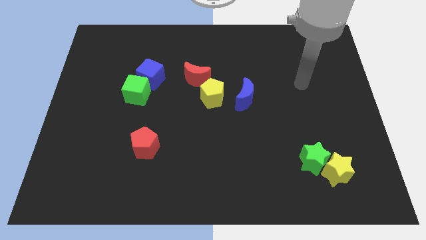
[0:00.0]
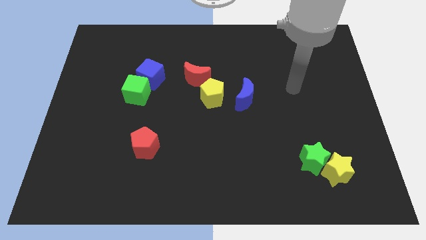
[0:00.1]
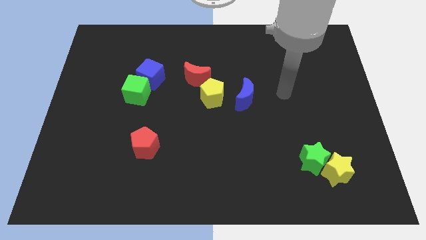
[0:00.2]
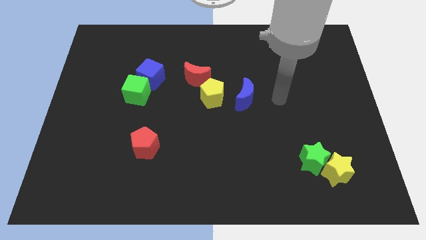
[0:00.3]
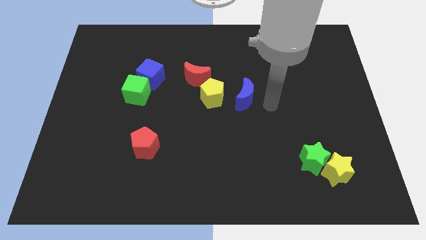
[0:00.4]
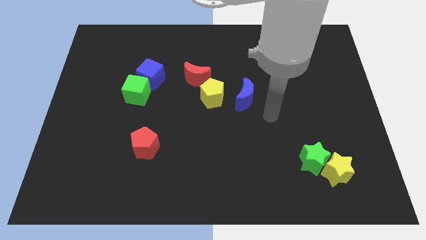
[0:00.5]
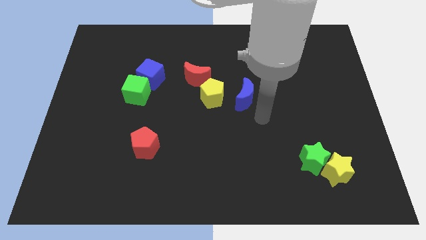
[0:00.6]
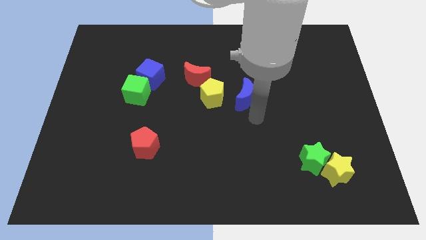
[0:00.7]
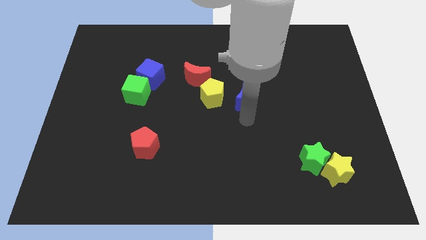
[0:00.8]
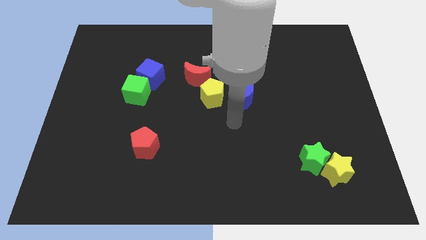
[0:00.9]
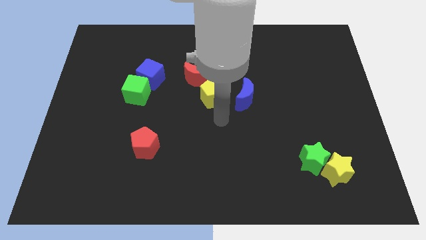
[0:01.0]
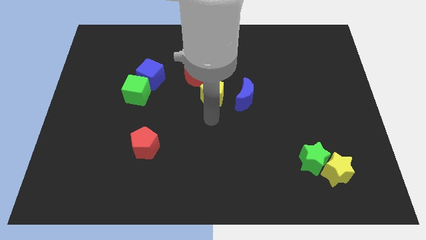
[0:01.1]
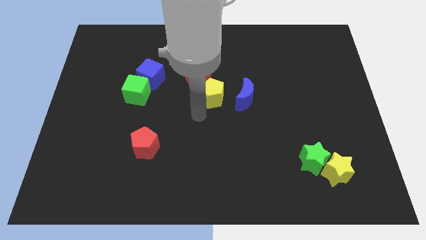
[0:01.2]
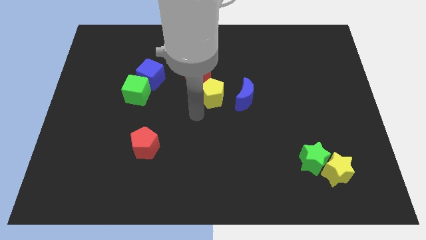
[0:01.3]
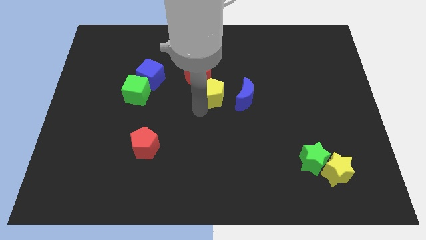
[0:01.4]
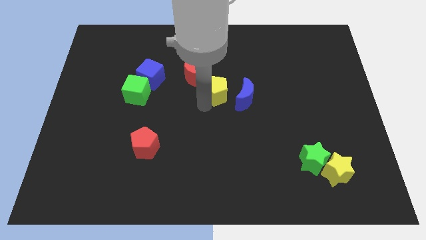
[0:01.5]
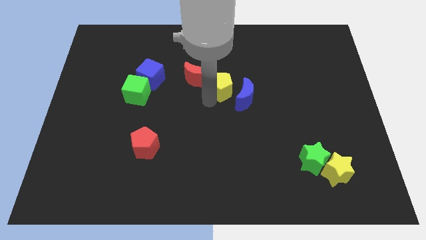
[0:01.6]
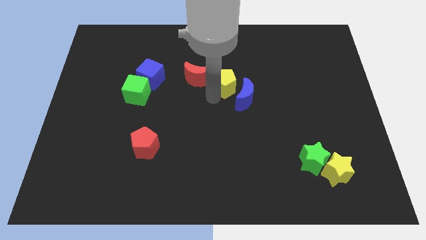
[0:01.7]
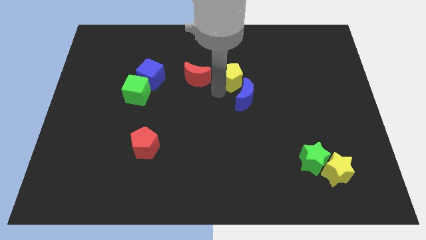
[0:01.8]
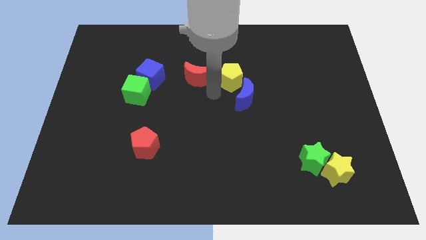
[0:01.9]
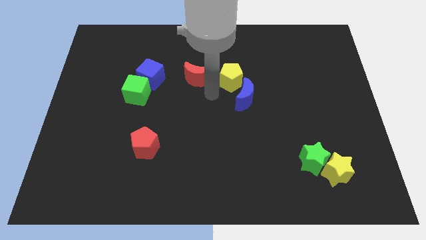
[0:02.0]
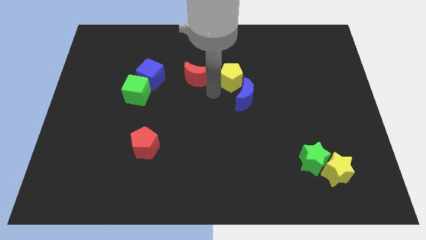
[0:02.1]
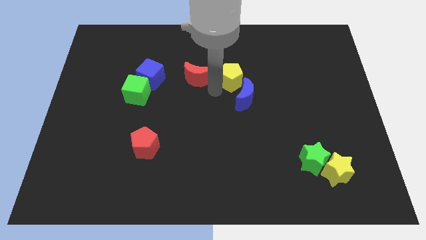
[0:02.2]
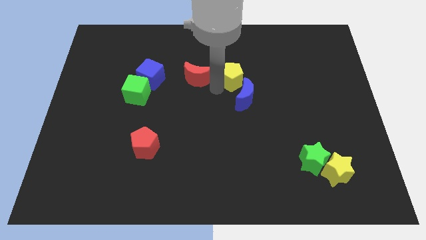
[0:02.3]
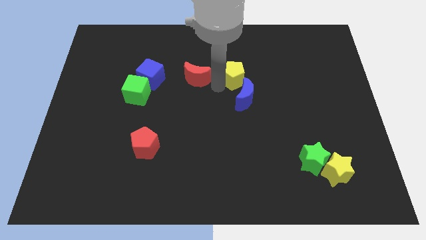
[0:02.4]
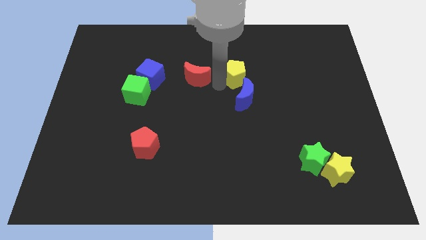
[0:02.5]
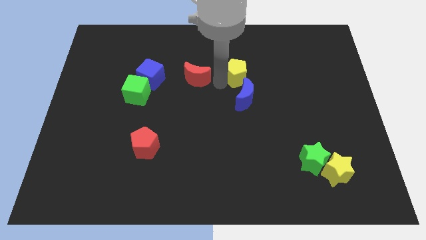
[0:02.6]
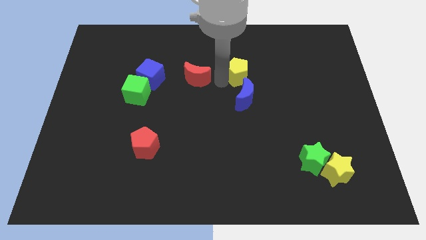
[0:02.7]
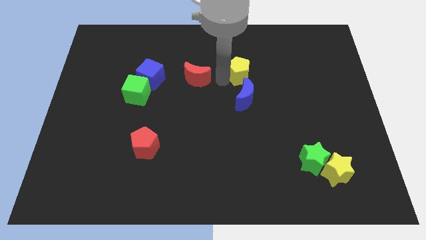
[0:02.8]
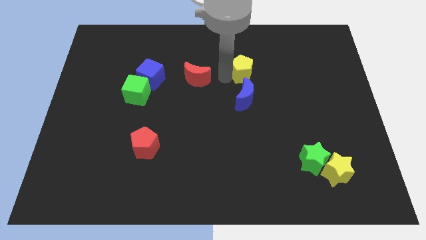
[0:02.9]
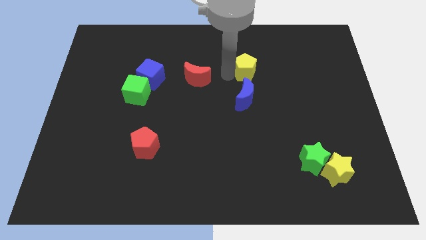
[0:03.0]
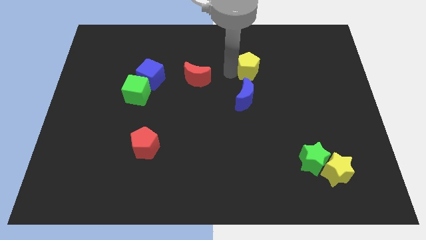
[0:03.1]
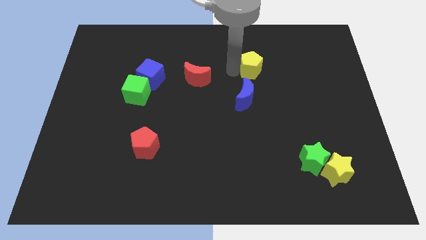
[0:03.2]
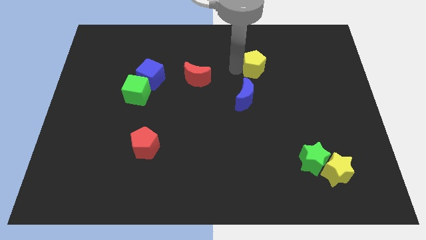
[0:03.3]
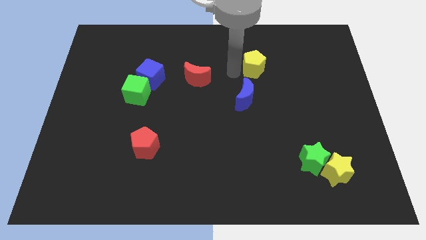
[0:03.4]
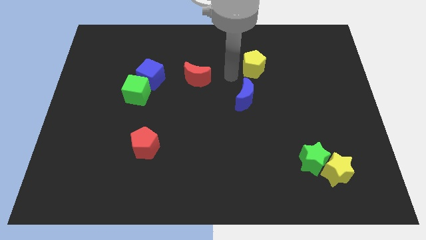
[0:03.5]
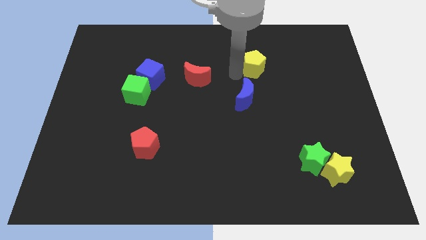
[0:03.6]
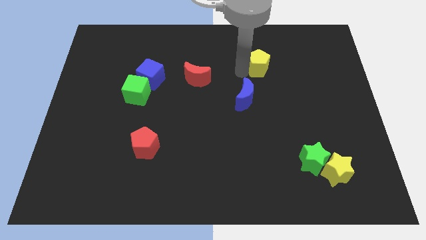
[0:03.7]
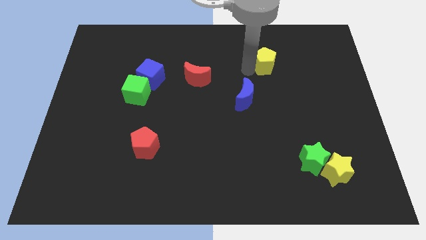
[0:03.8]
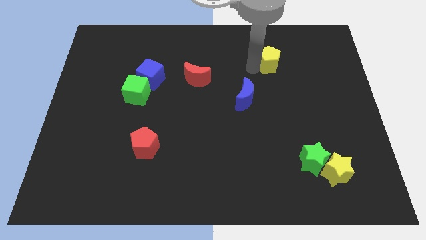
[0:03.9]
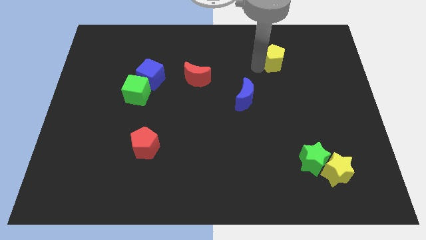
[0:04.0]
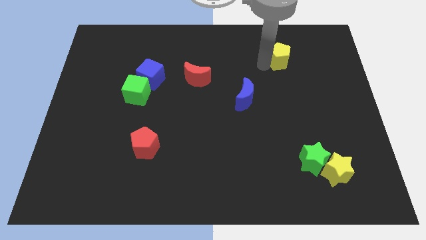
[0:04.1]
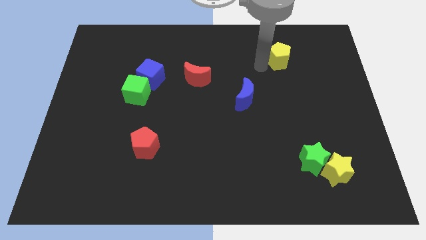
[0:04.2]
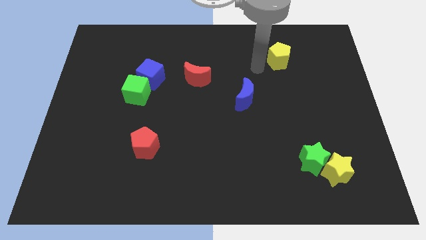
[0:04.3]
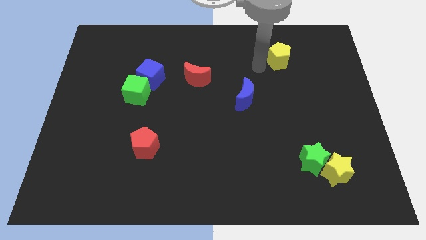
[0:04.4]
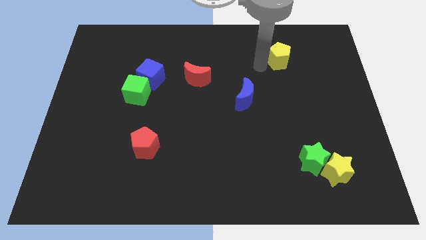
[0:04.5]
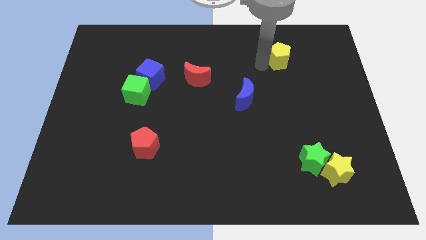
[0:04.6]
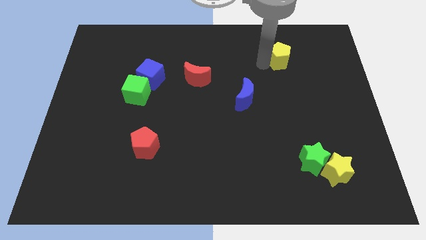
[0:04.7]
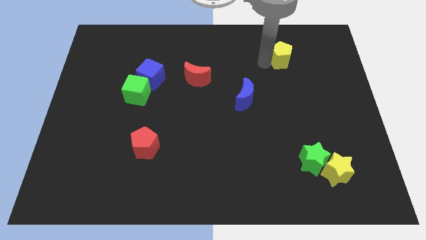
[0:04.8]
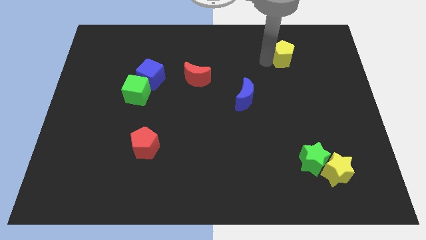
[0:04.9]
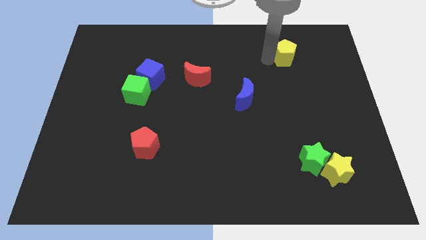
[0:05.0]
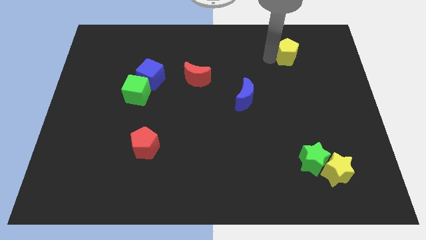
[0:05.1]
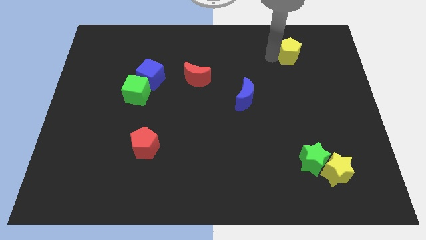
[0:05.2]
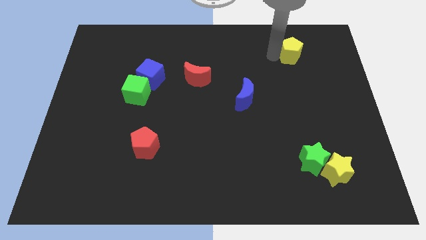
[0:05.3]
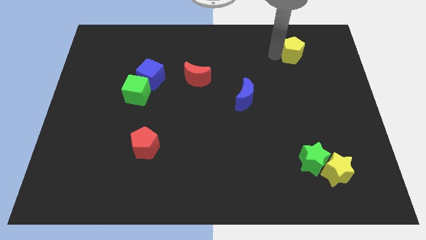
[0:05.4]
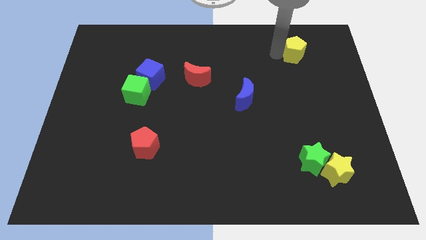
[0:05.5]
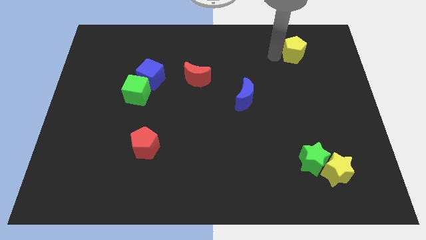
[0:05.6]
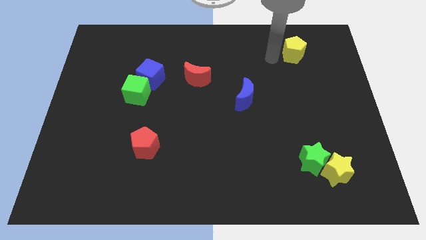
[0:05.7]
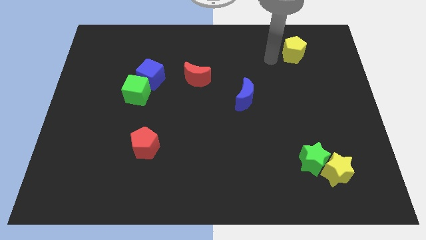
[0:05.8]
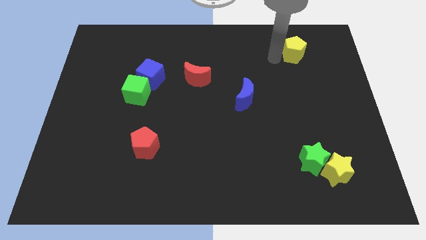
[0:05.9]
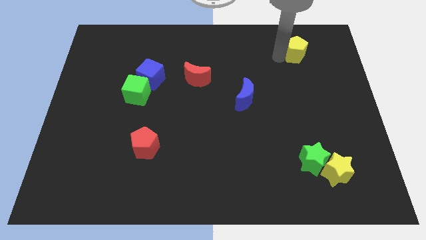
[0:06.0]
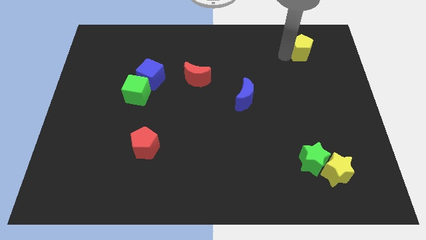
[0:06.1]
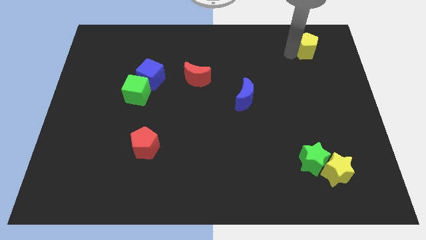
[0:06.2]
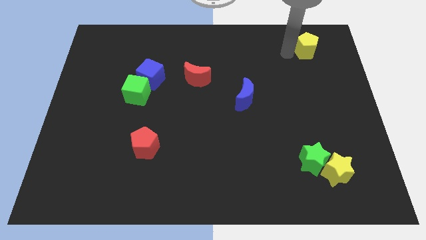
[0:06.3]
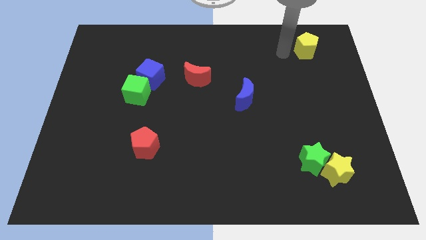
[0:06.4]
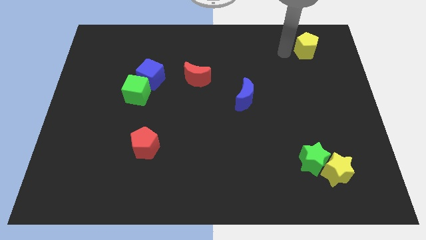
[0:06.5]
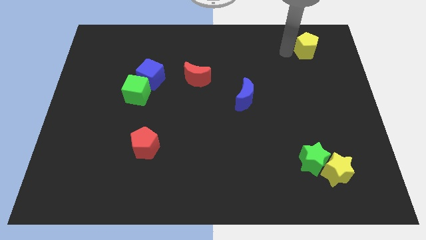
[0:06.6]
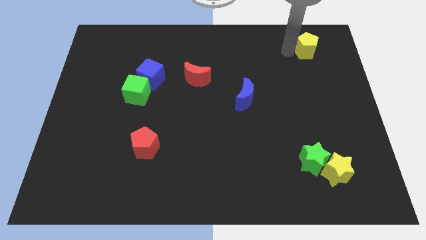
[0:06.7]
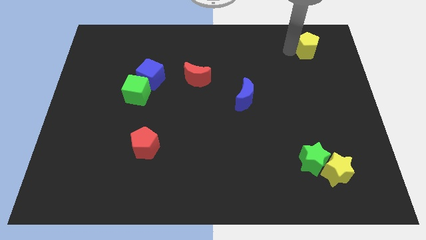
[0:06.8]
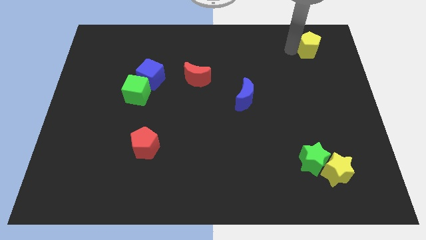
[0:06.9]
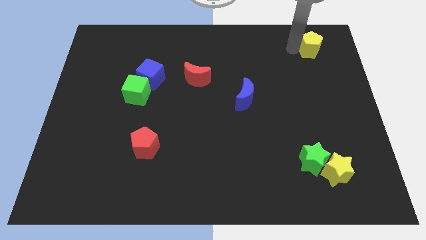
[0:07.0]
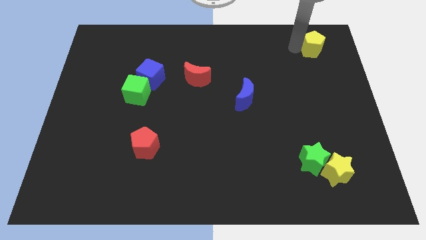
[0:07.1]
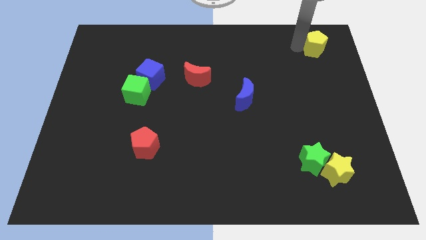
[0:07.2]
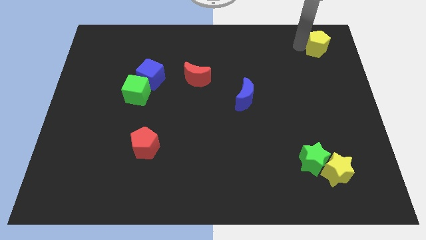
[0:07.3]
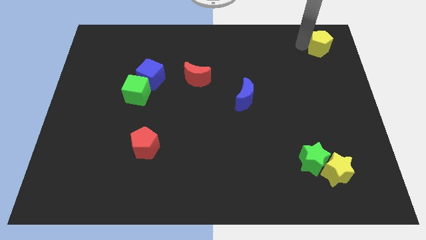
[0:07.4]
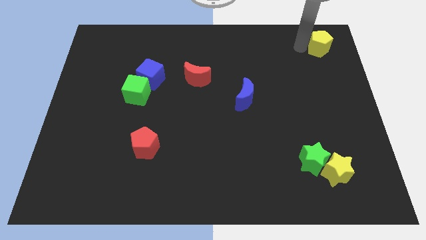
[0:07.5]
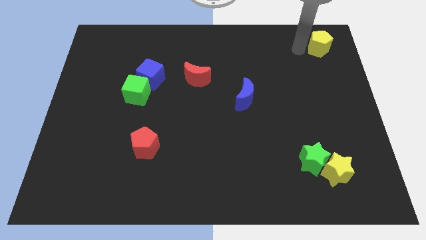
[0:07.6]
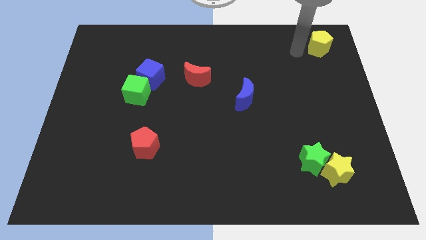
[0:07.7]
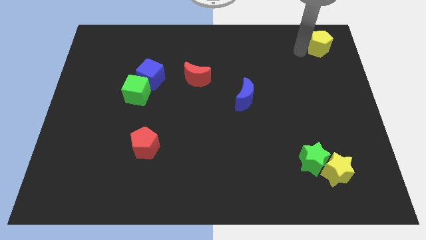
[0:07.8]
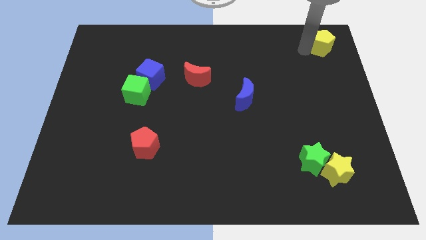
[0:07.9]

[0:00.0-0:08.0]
slide the yellow pentagon to the top right
